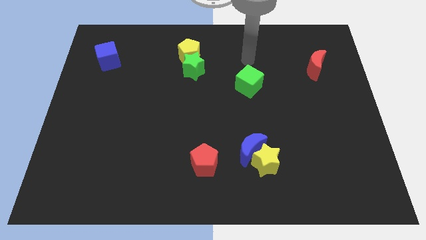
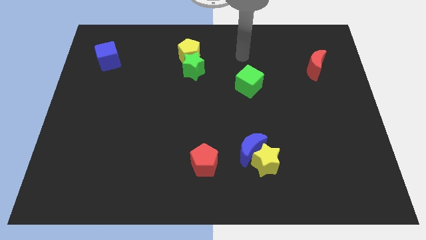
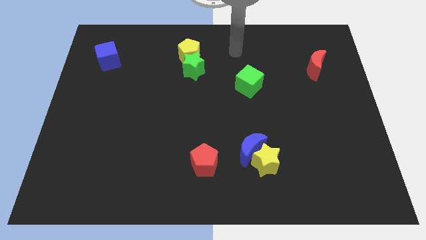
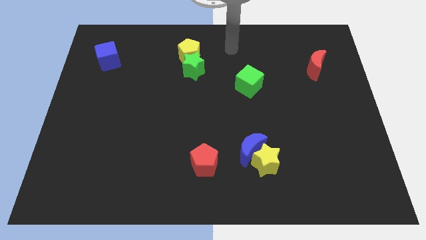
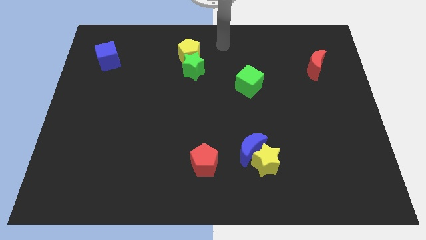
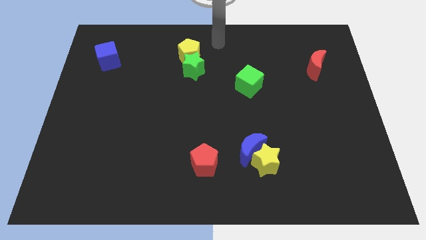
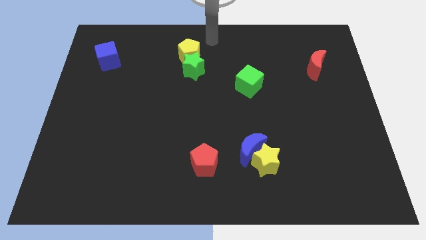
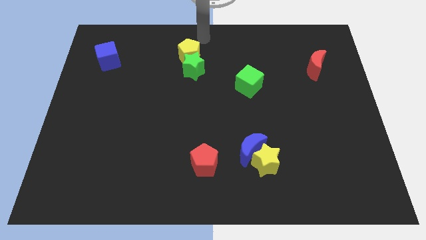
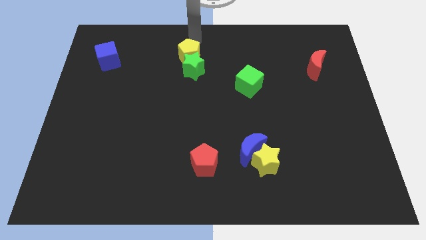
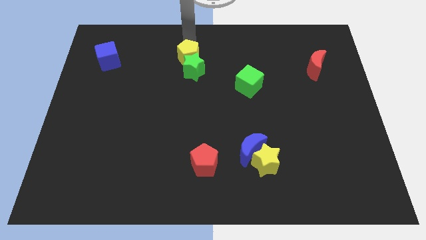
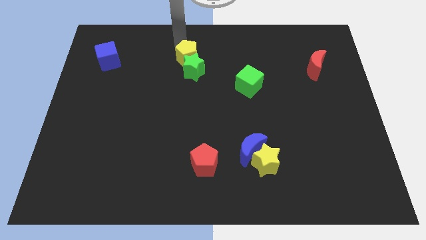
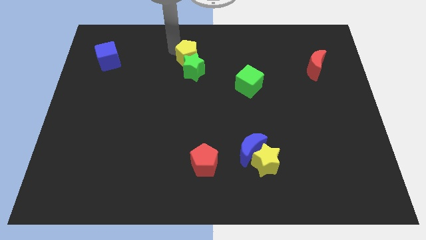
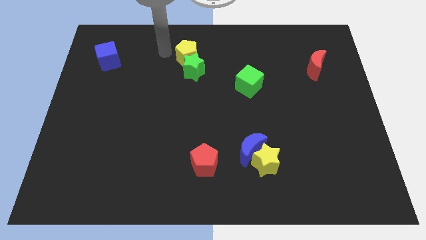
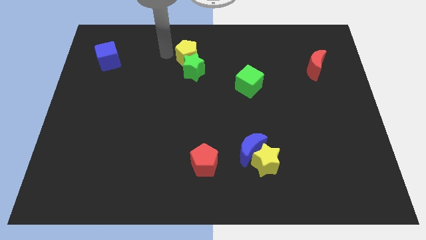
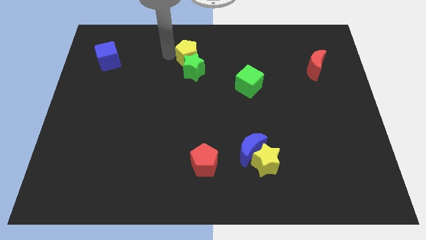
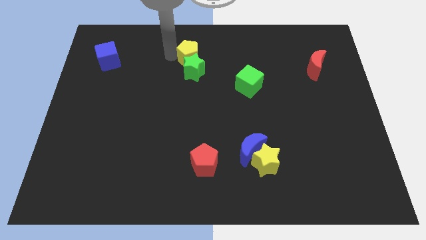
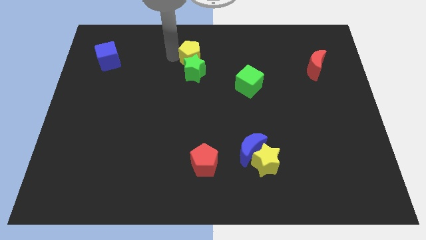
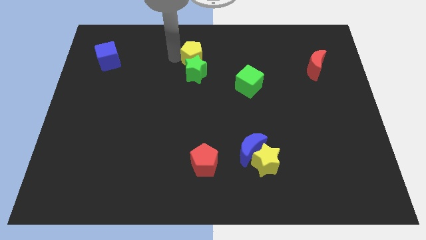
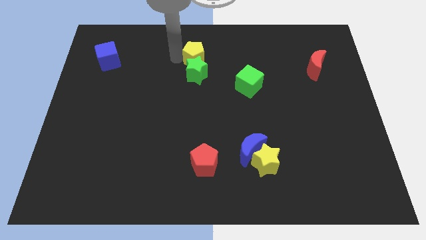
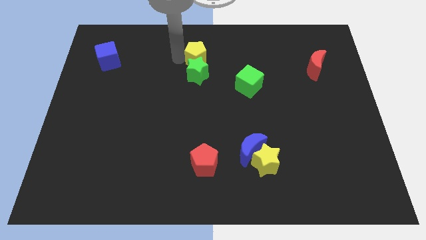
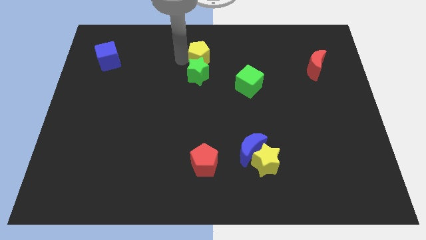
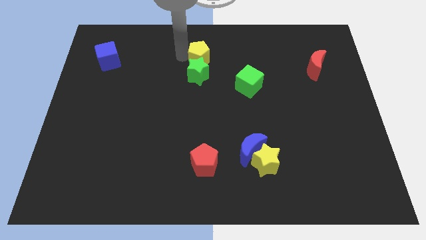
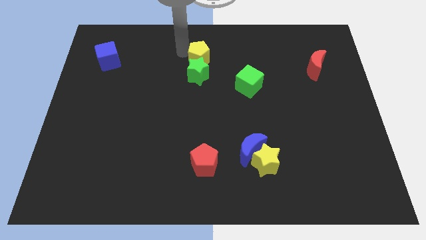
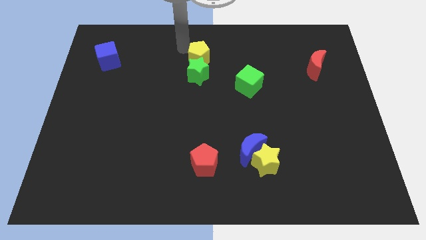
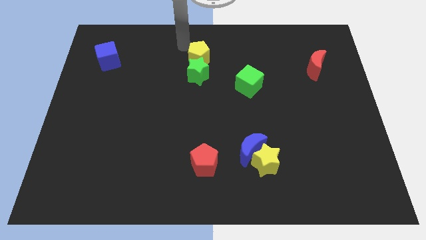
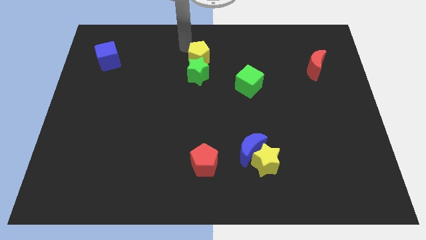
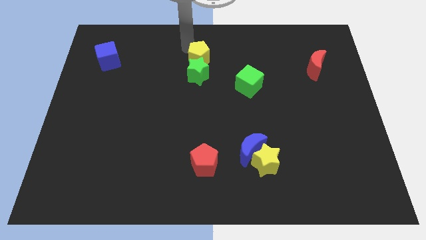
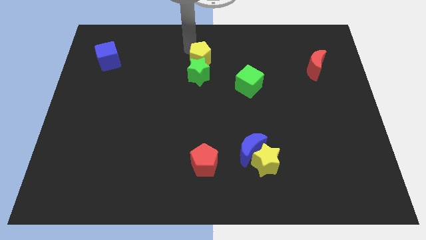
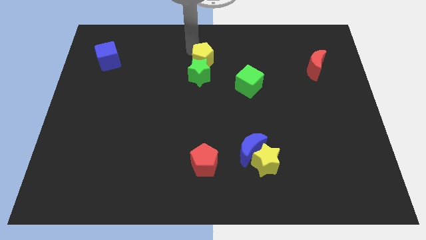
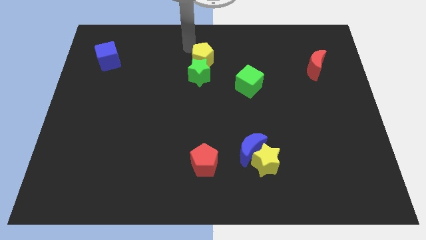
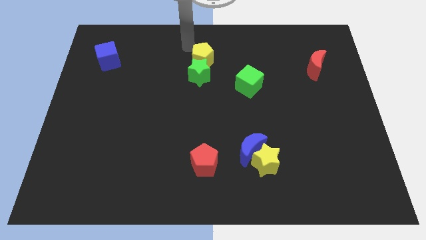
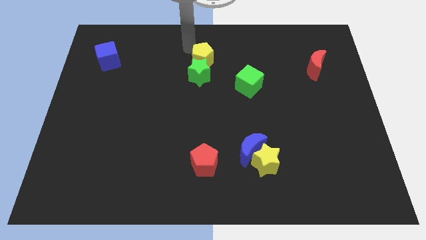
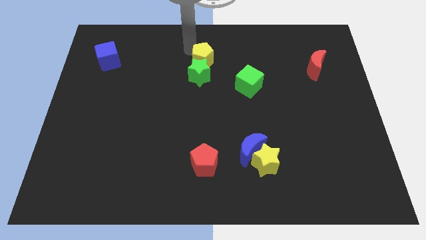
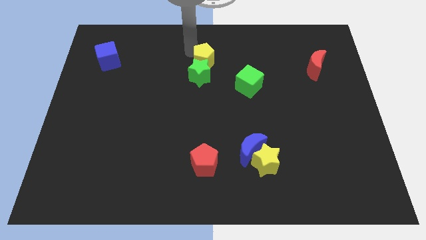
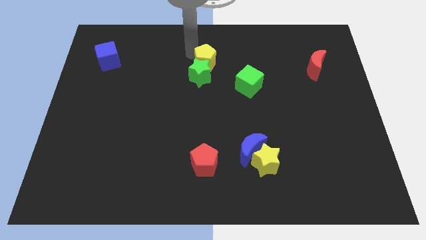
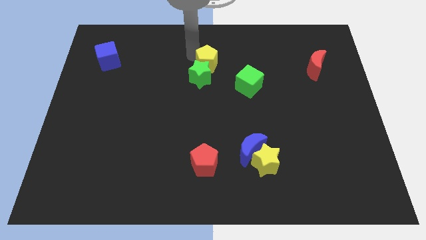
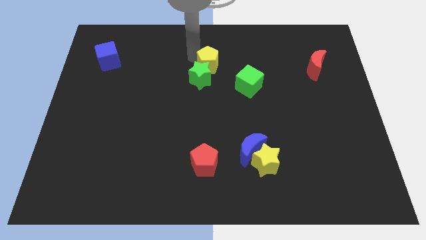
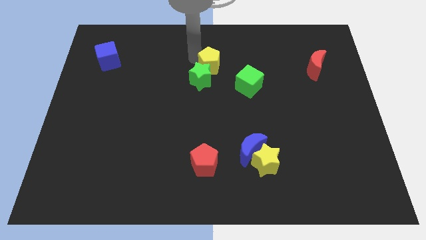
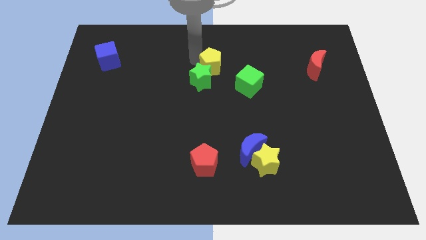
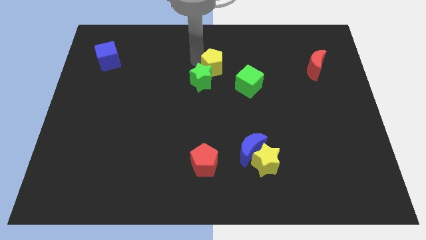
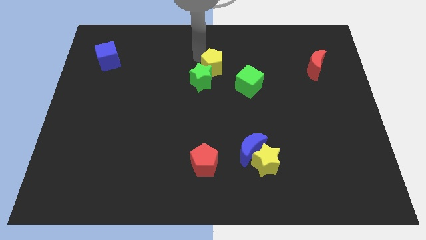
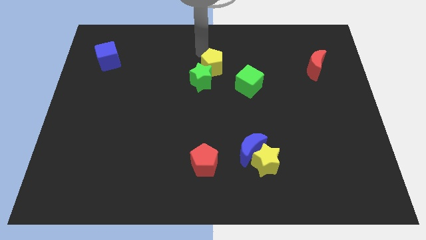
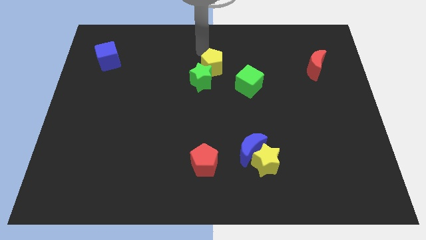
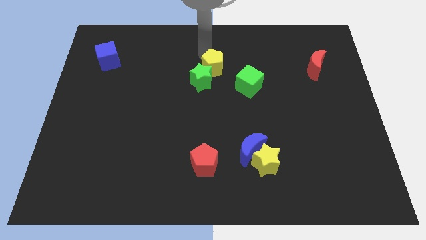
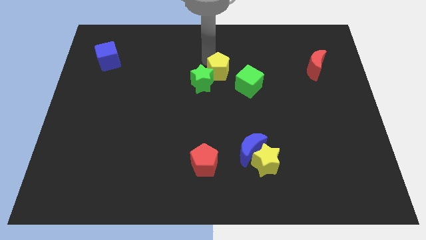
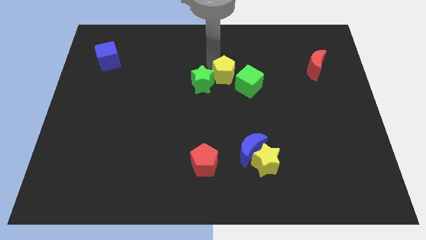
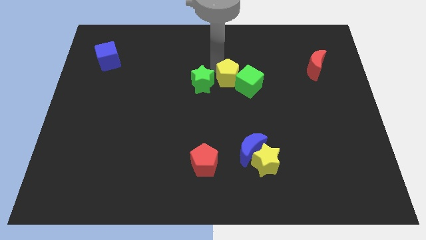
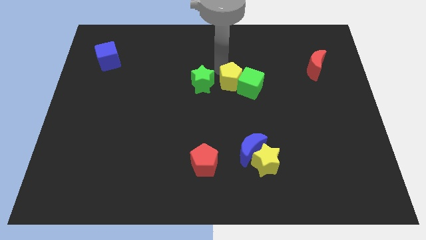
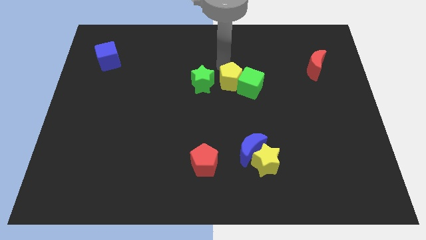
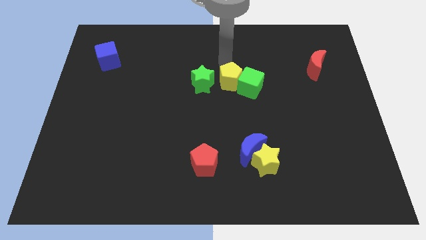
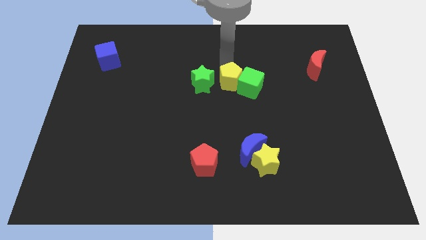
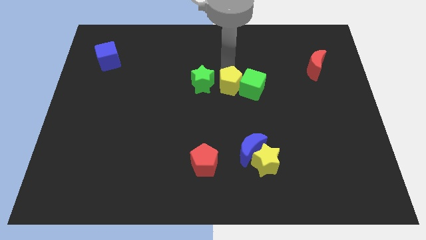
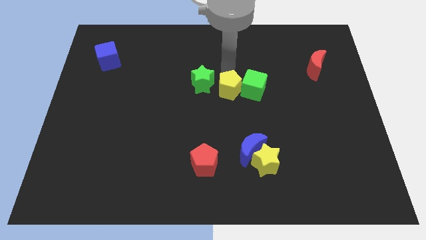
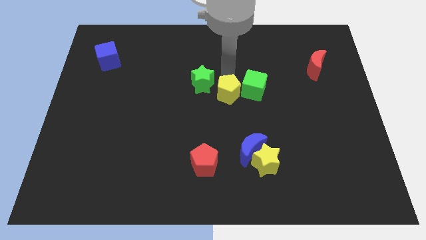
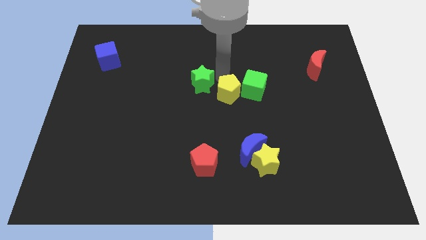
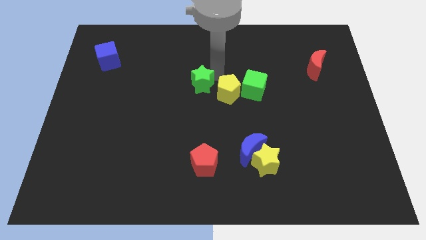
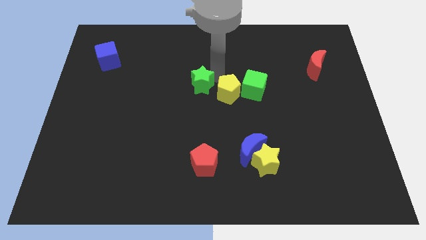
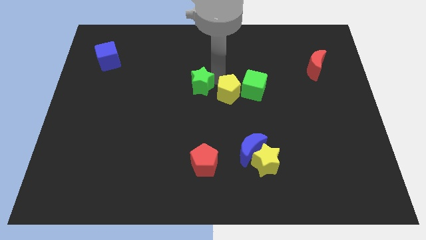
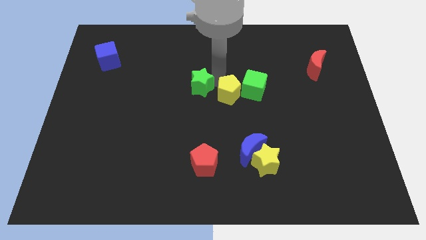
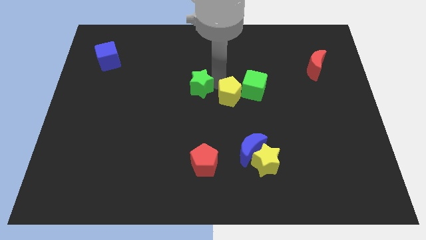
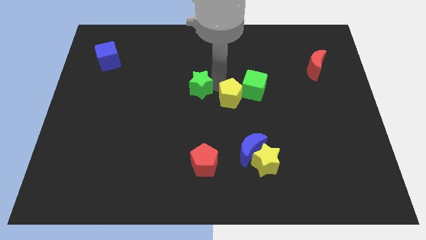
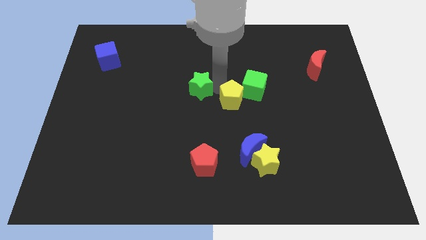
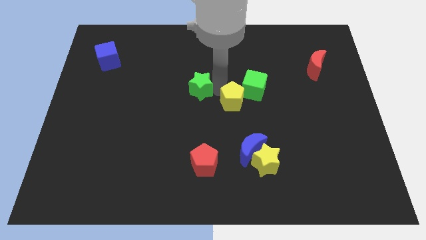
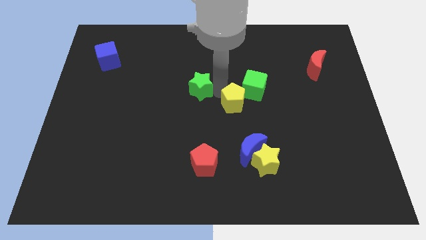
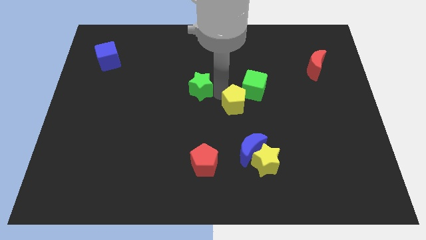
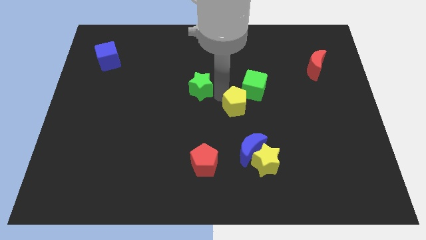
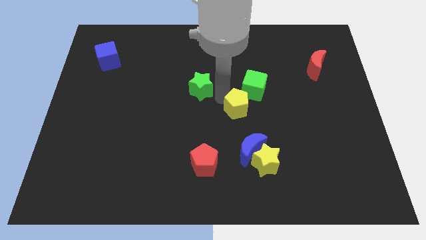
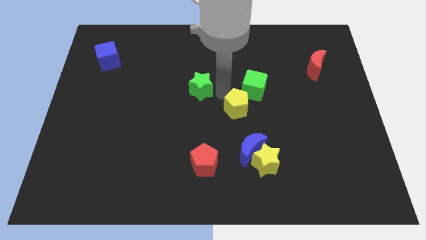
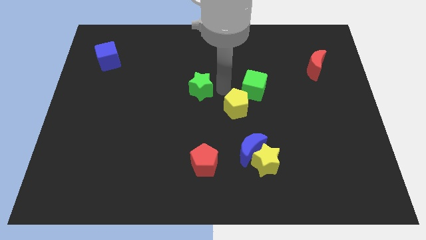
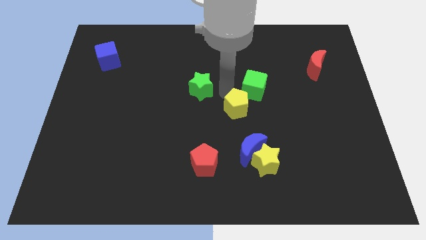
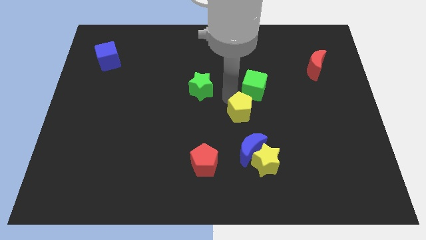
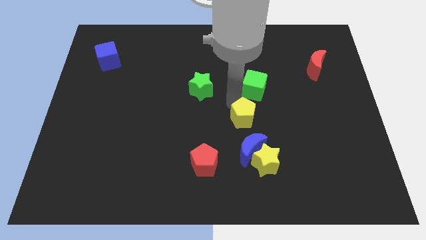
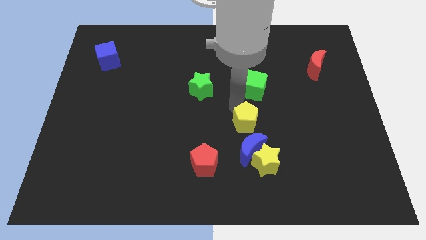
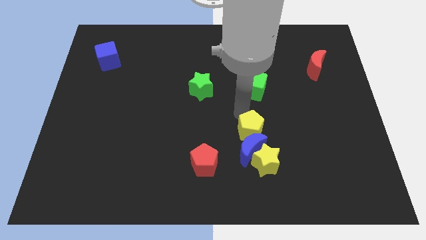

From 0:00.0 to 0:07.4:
move the yellow pentagon towards the blue moon

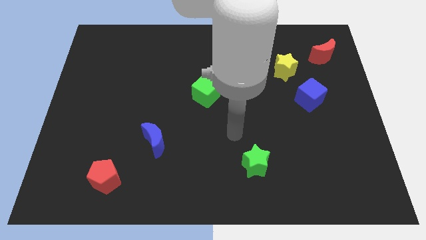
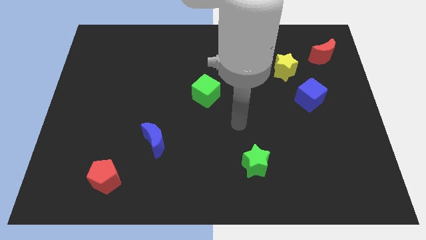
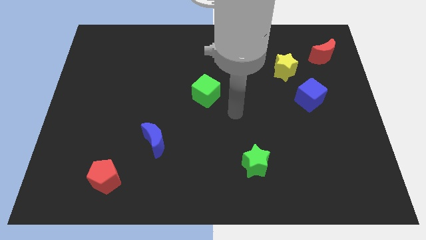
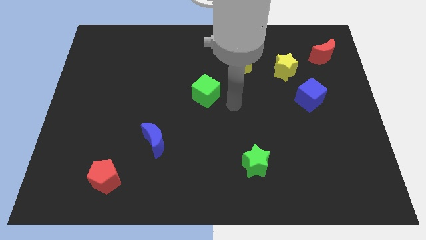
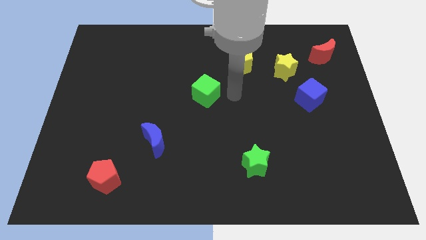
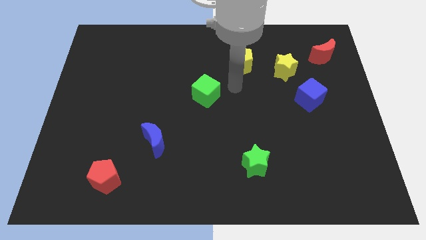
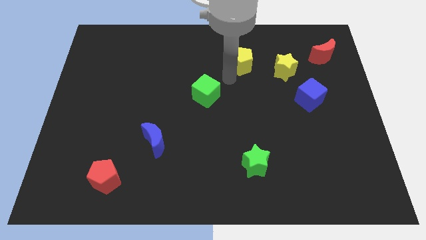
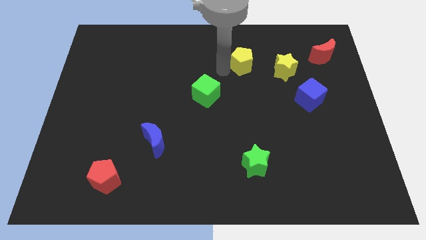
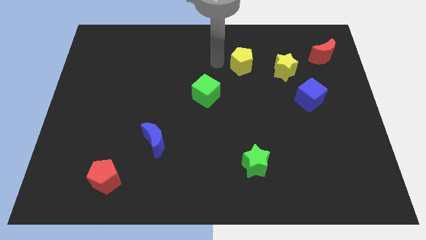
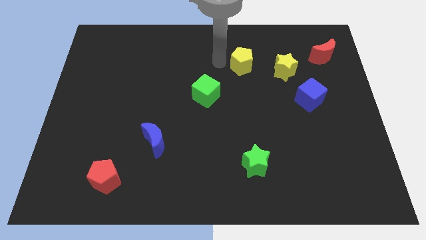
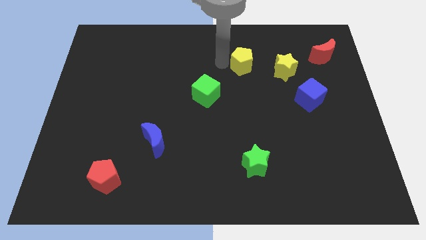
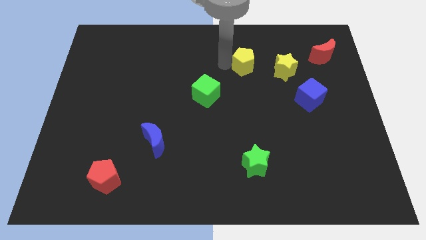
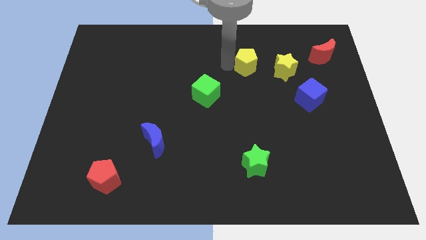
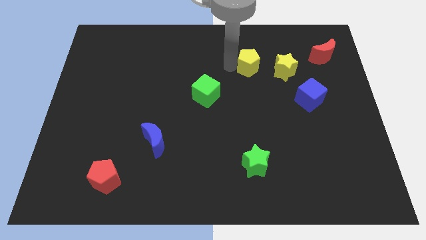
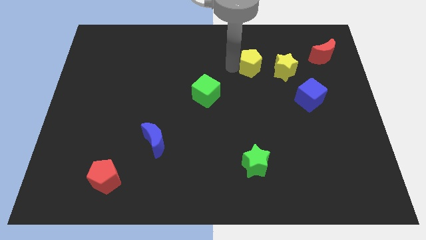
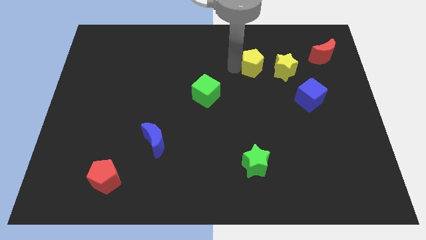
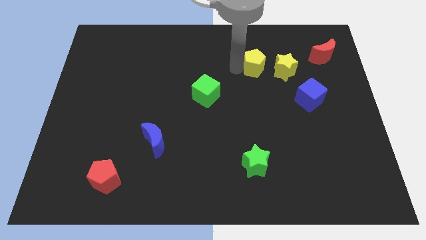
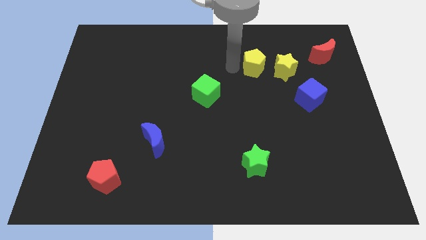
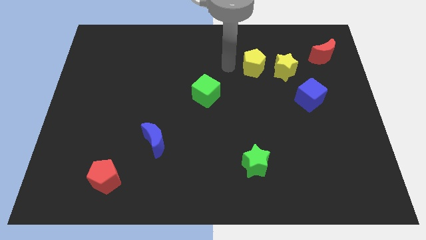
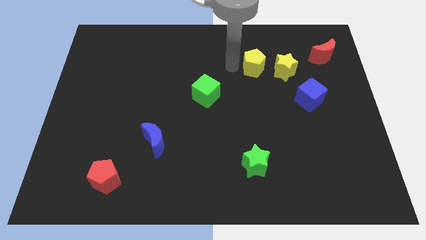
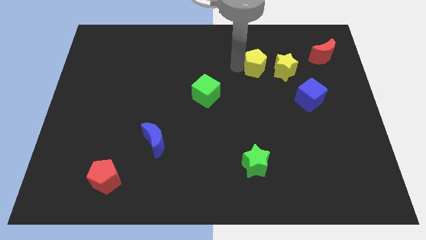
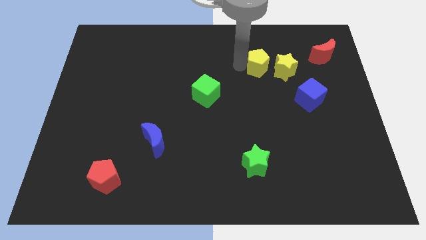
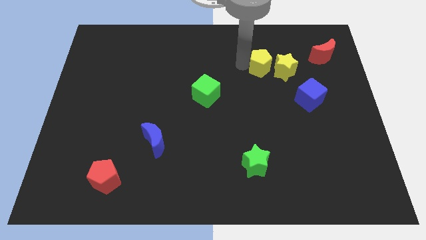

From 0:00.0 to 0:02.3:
slide the yellow pentagon close to the yellow star
